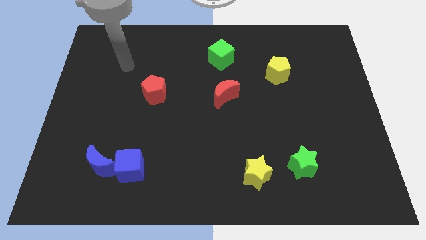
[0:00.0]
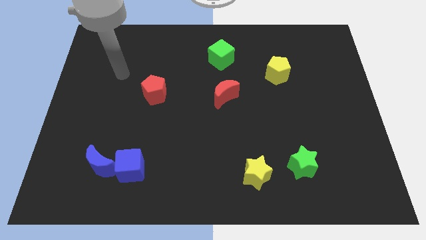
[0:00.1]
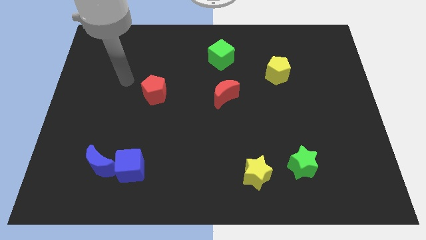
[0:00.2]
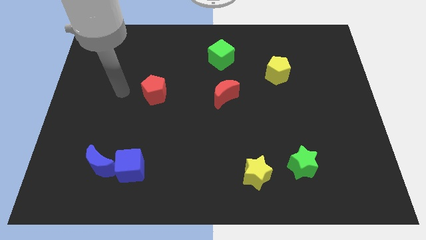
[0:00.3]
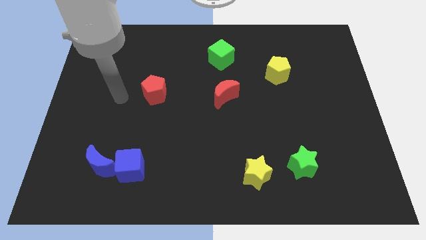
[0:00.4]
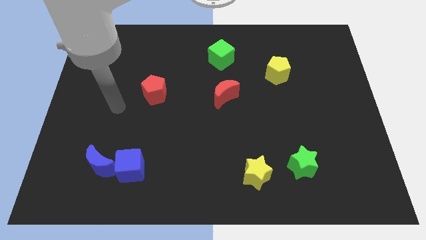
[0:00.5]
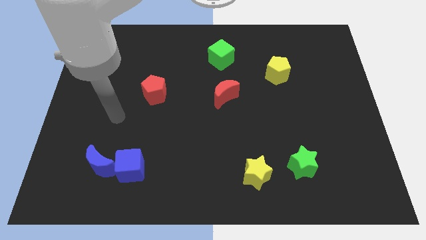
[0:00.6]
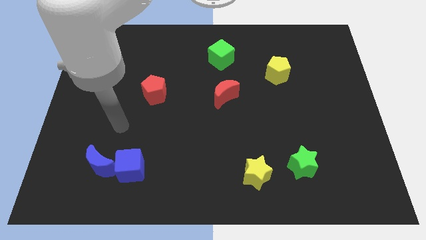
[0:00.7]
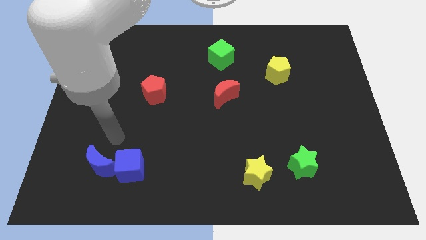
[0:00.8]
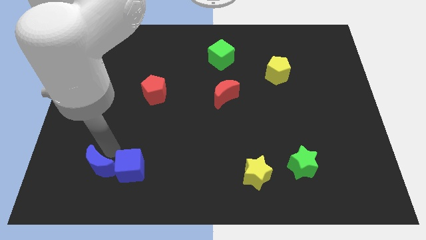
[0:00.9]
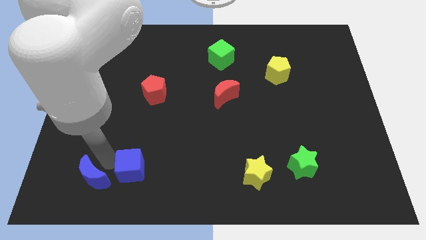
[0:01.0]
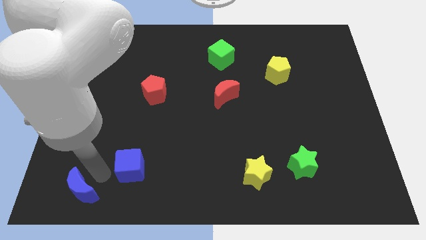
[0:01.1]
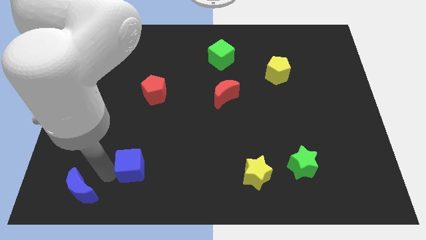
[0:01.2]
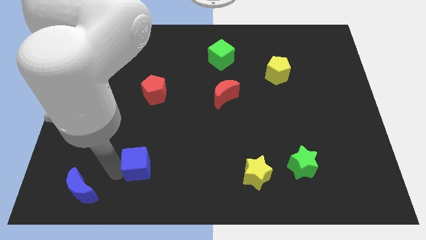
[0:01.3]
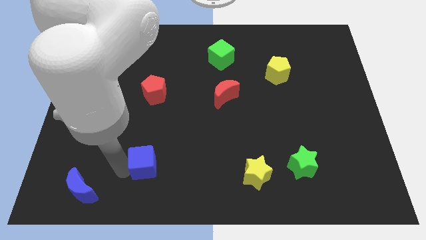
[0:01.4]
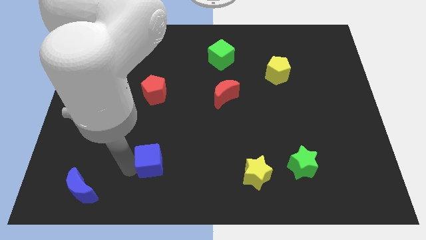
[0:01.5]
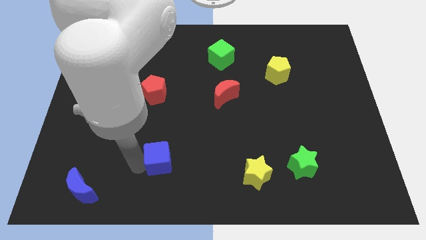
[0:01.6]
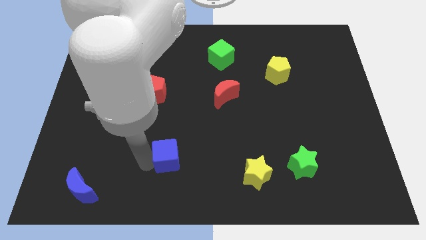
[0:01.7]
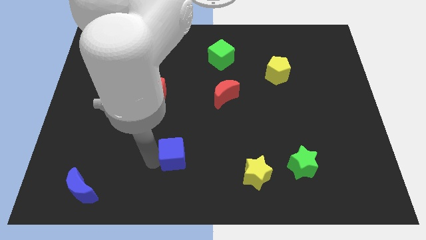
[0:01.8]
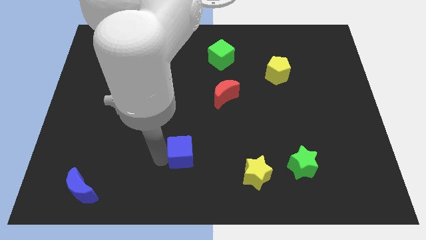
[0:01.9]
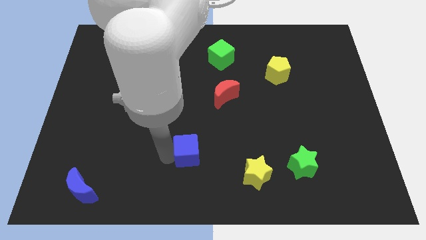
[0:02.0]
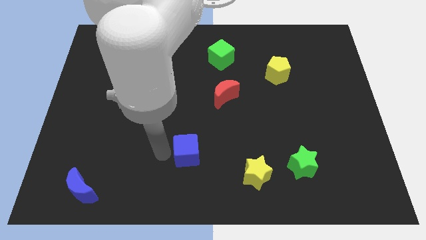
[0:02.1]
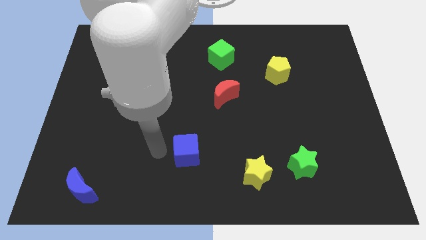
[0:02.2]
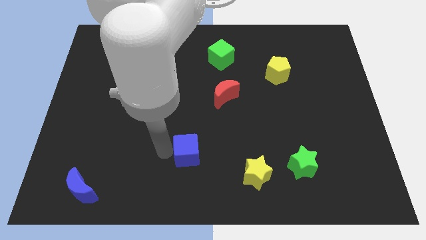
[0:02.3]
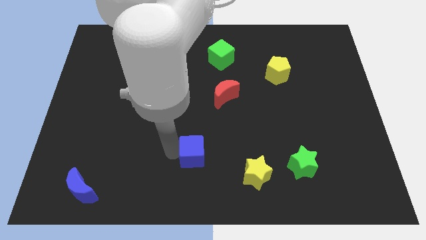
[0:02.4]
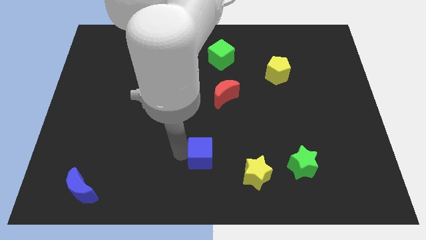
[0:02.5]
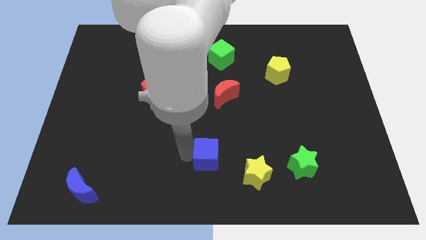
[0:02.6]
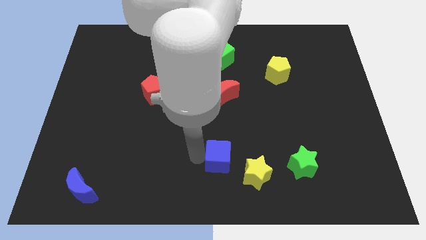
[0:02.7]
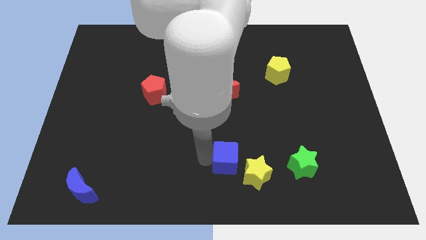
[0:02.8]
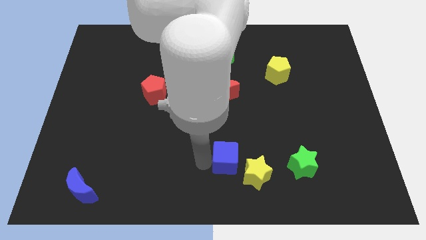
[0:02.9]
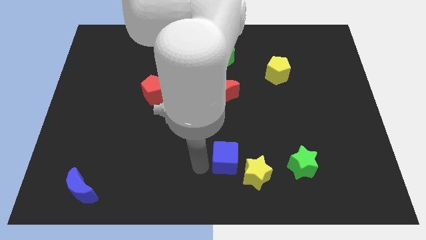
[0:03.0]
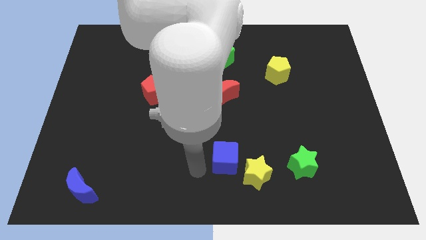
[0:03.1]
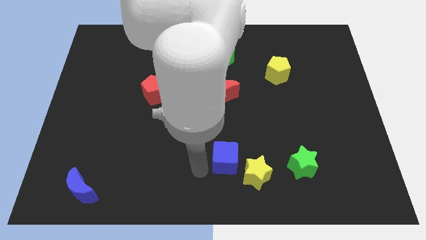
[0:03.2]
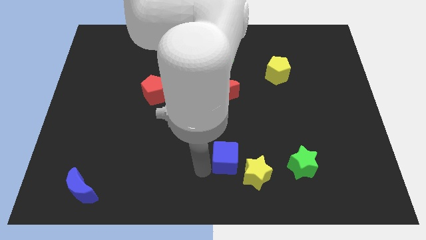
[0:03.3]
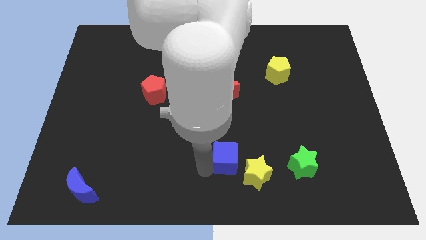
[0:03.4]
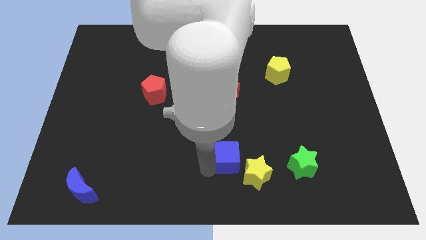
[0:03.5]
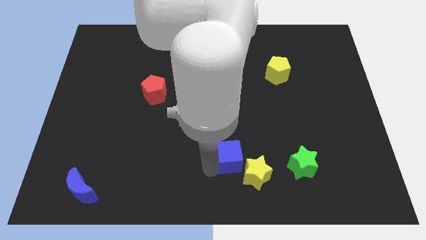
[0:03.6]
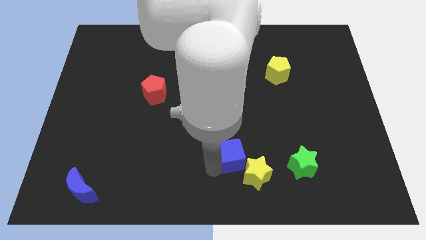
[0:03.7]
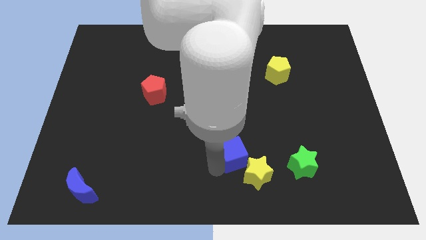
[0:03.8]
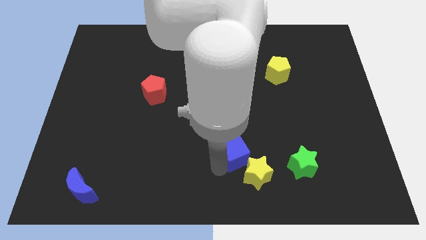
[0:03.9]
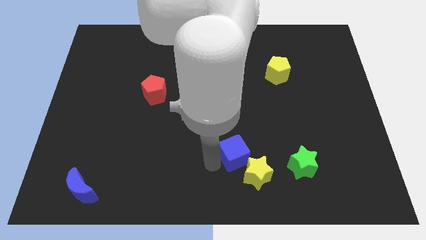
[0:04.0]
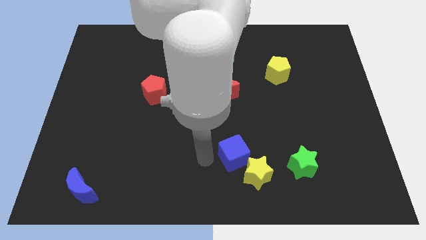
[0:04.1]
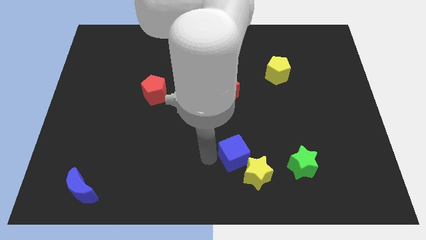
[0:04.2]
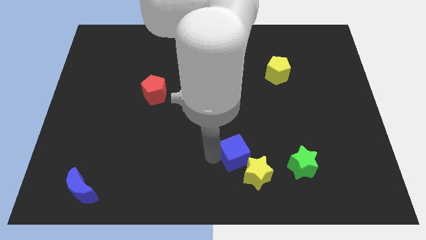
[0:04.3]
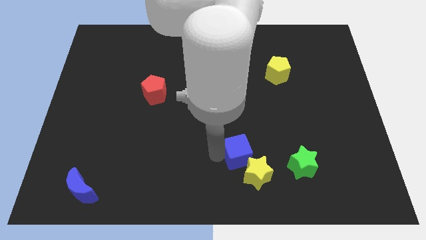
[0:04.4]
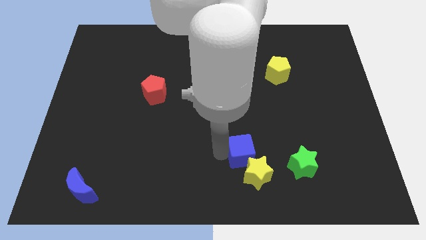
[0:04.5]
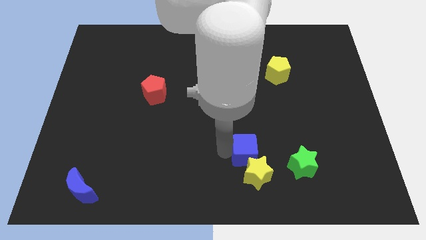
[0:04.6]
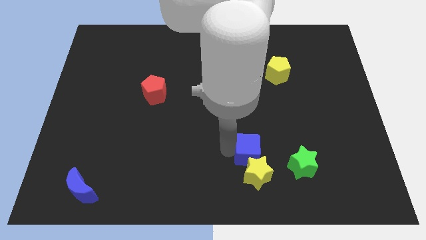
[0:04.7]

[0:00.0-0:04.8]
put the blue cube to the top right side of the yellow star

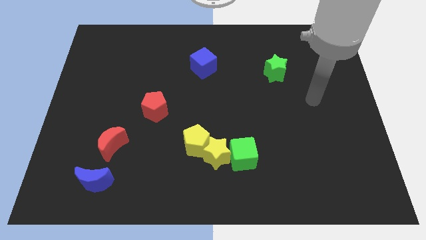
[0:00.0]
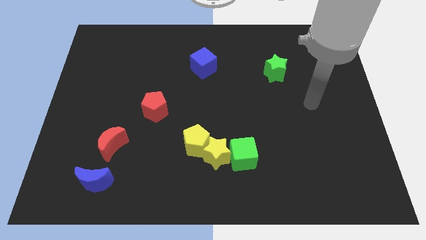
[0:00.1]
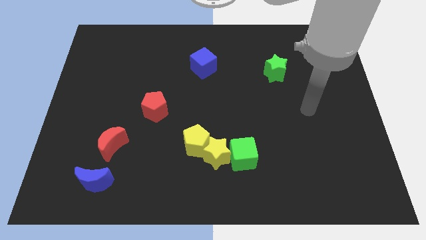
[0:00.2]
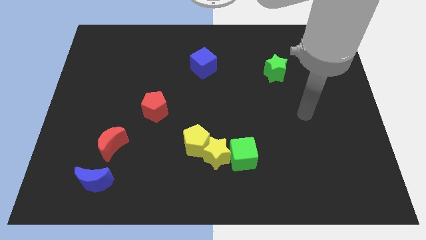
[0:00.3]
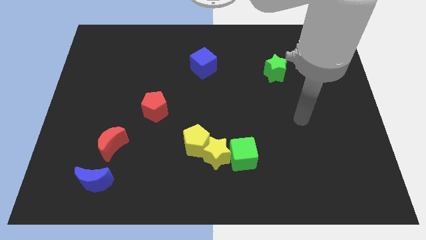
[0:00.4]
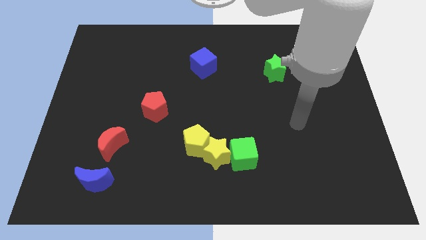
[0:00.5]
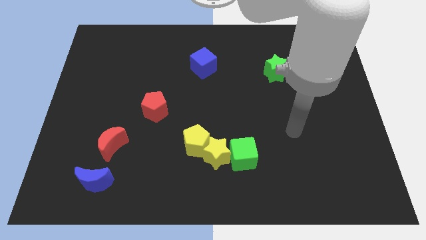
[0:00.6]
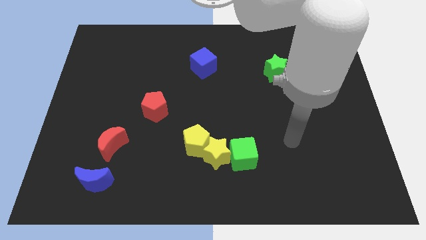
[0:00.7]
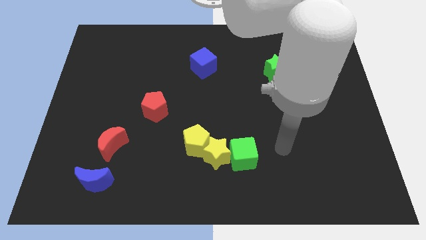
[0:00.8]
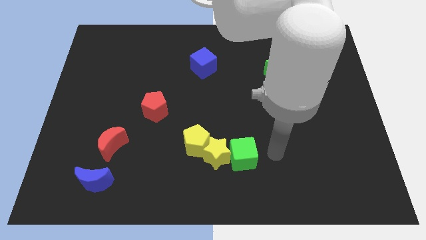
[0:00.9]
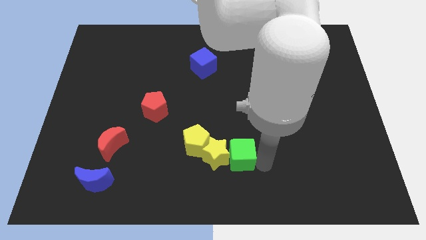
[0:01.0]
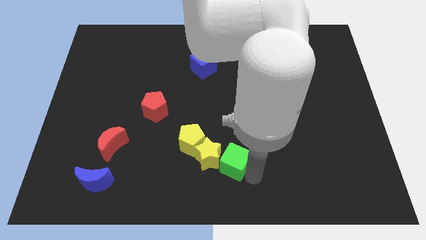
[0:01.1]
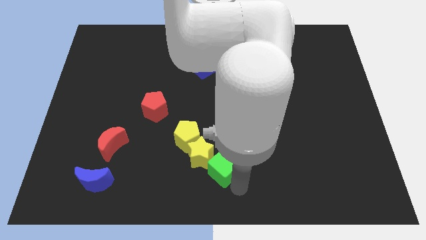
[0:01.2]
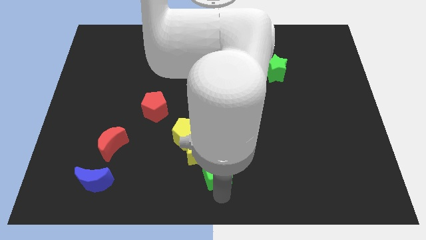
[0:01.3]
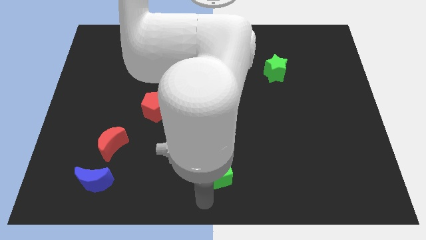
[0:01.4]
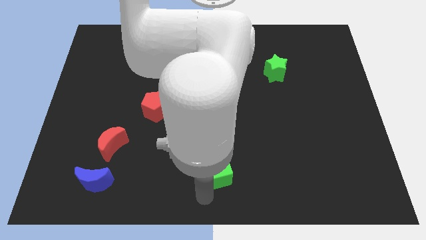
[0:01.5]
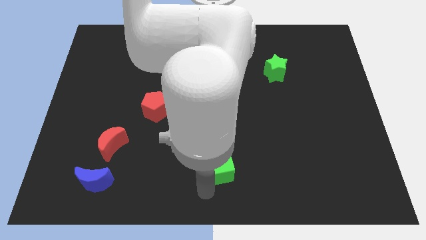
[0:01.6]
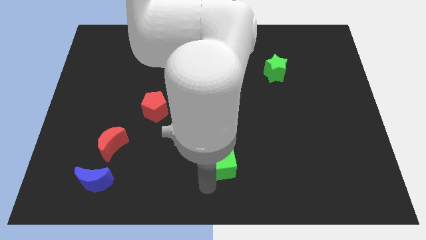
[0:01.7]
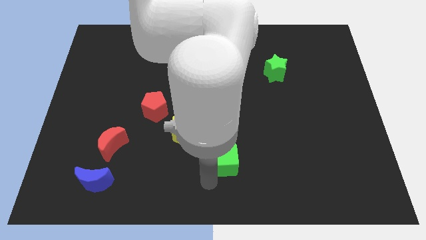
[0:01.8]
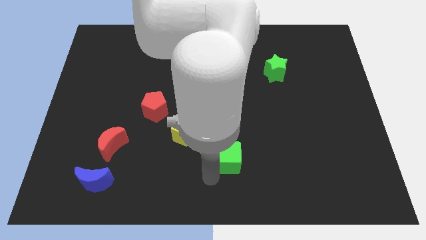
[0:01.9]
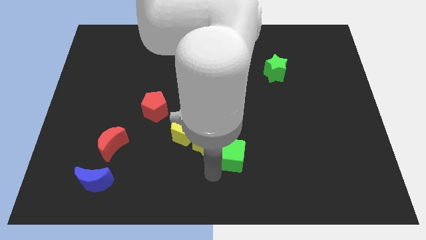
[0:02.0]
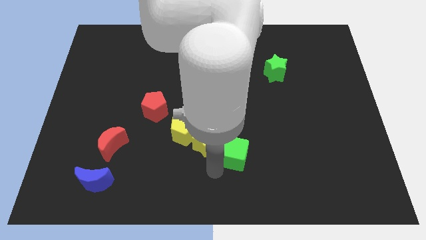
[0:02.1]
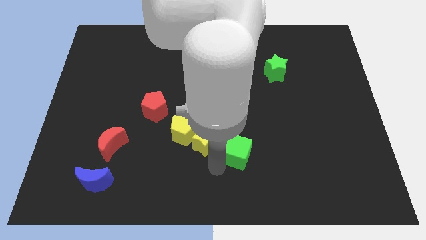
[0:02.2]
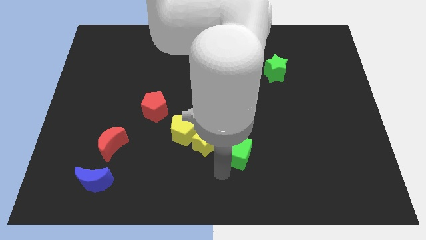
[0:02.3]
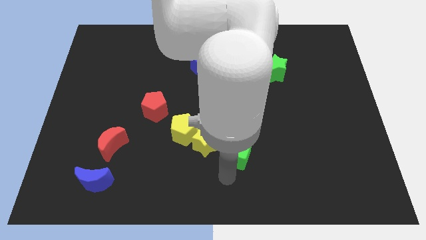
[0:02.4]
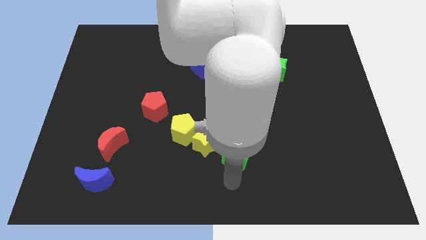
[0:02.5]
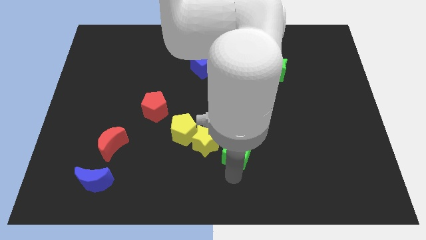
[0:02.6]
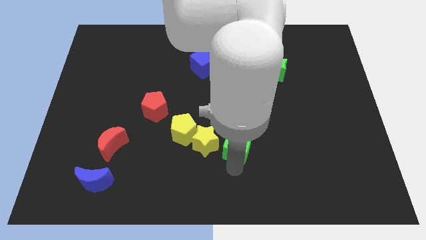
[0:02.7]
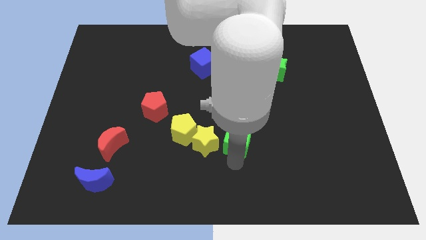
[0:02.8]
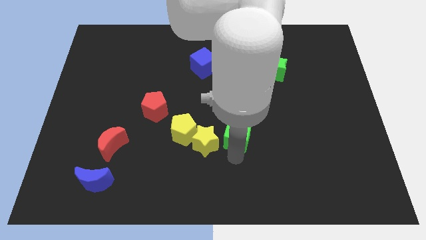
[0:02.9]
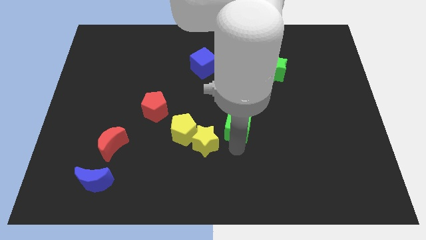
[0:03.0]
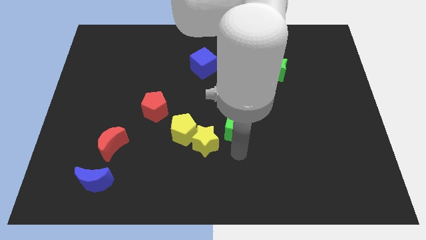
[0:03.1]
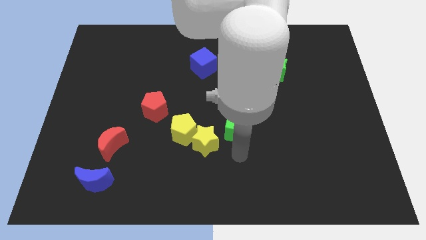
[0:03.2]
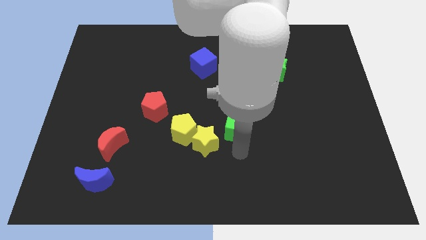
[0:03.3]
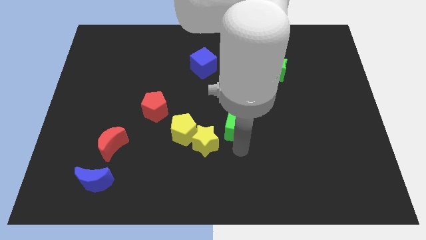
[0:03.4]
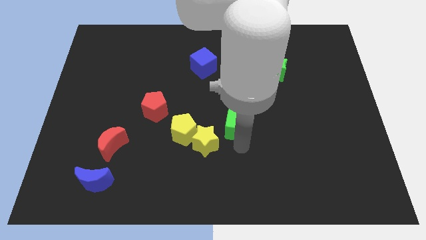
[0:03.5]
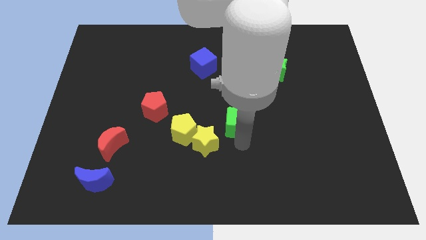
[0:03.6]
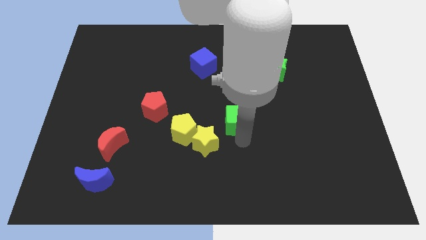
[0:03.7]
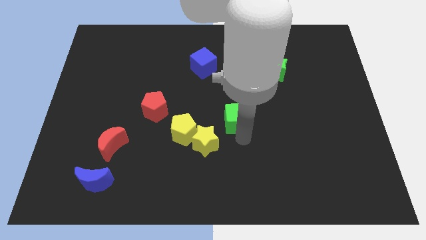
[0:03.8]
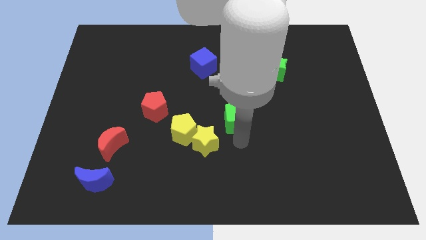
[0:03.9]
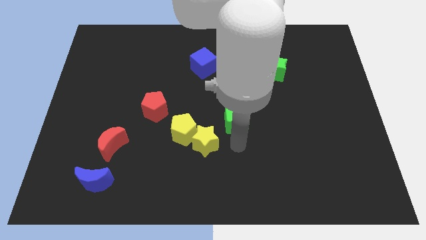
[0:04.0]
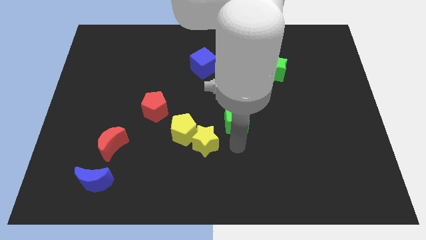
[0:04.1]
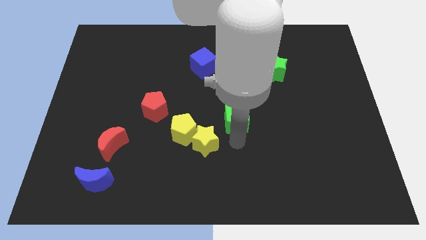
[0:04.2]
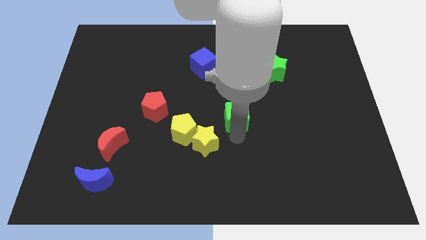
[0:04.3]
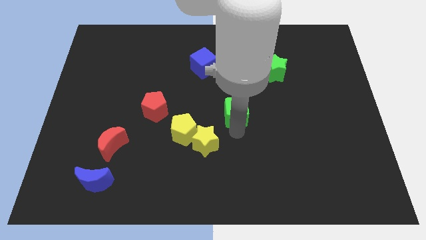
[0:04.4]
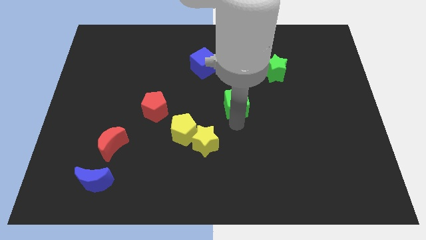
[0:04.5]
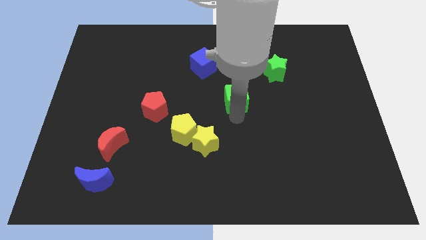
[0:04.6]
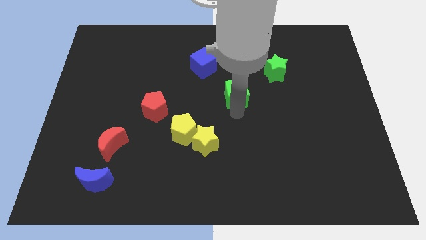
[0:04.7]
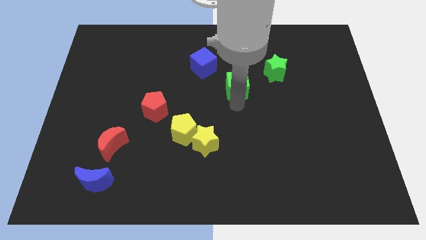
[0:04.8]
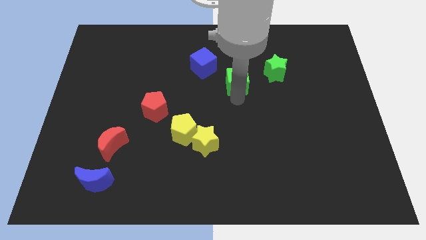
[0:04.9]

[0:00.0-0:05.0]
put the green cube to the left side of the green star
